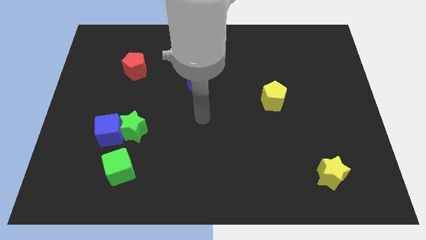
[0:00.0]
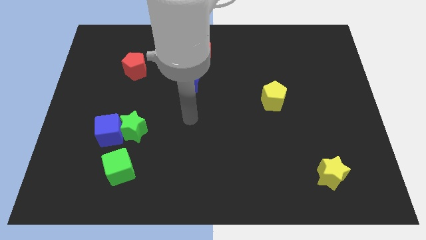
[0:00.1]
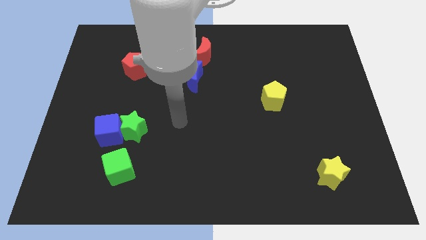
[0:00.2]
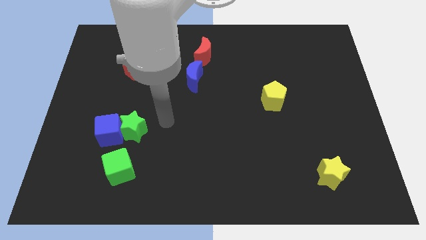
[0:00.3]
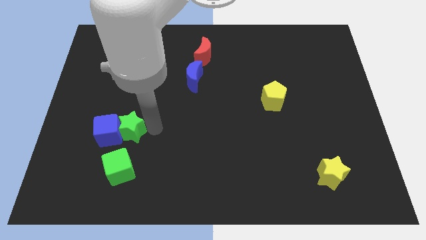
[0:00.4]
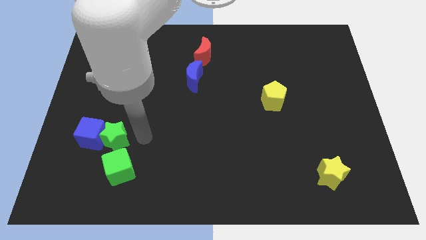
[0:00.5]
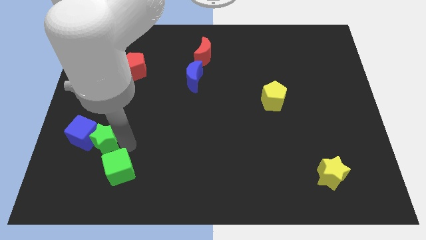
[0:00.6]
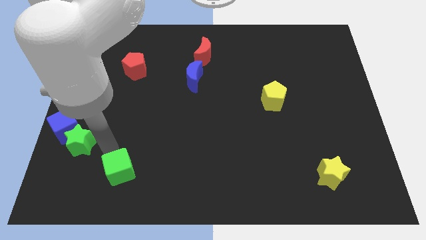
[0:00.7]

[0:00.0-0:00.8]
separate the blue cube from the green star and green cube

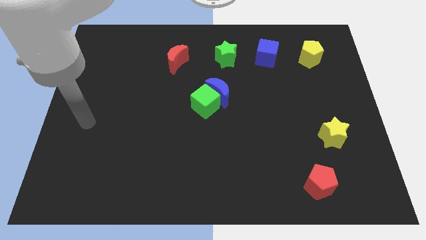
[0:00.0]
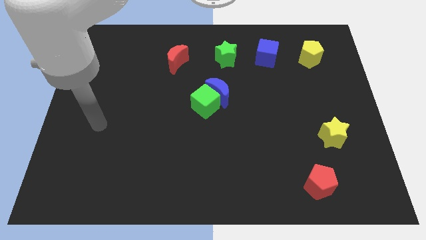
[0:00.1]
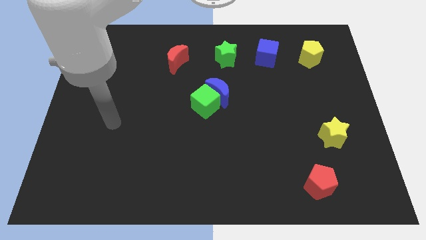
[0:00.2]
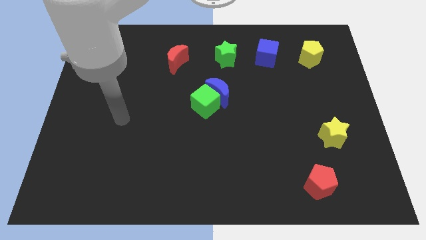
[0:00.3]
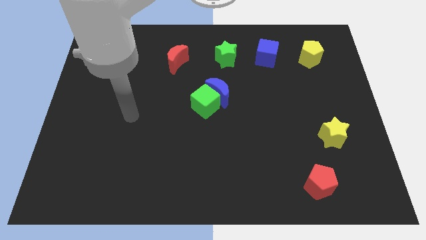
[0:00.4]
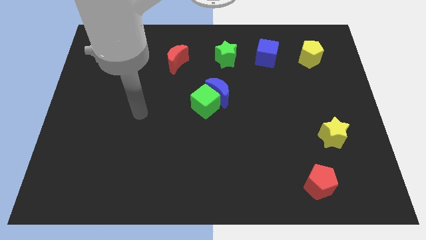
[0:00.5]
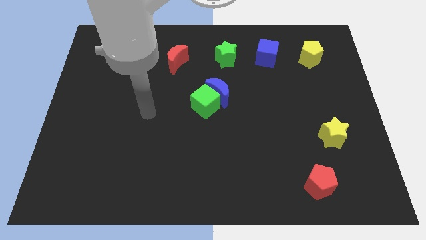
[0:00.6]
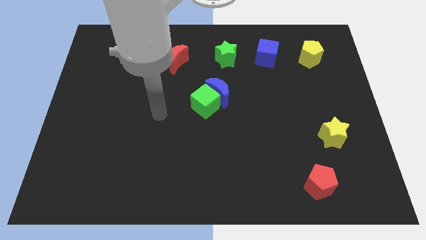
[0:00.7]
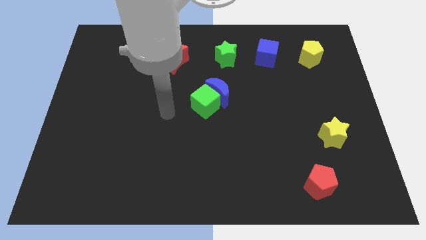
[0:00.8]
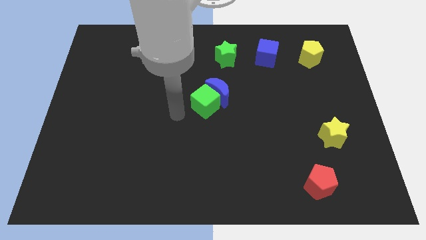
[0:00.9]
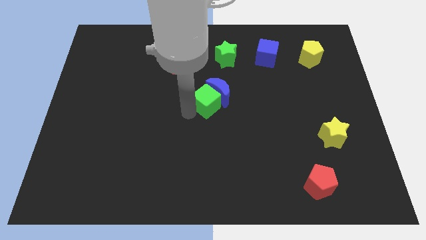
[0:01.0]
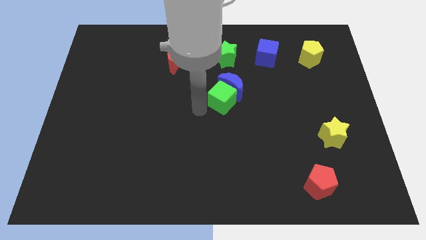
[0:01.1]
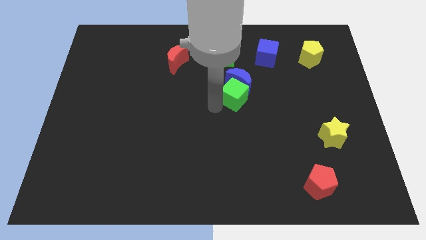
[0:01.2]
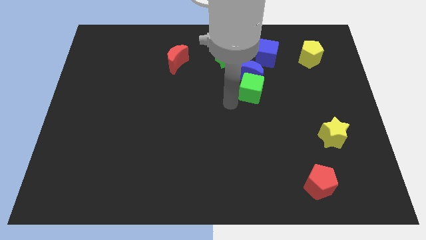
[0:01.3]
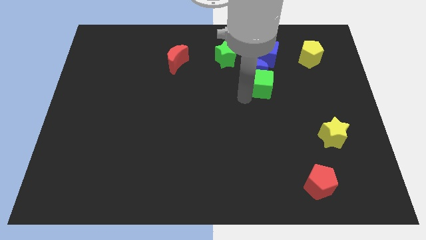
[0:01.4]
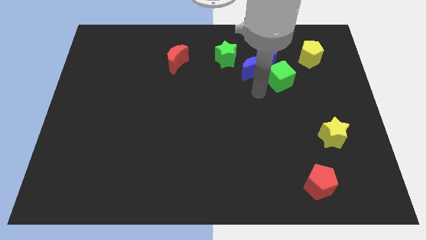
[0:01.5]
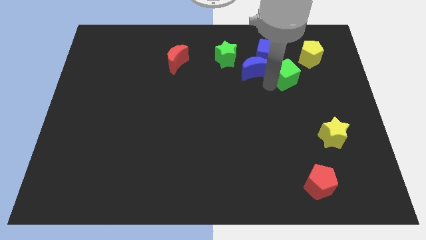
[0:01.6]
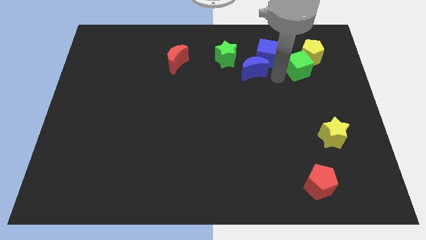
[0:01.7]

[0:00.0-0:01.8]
move the blue moon away from the green cube

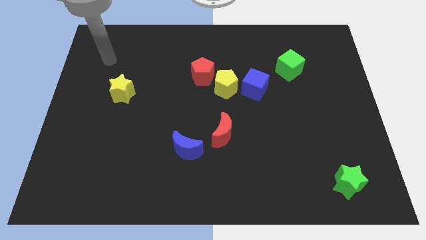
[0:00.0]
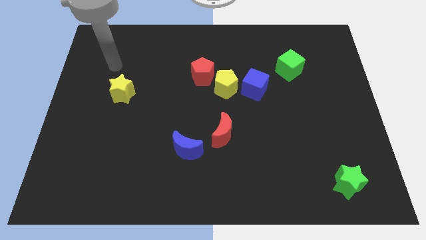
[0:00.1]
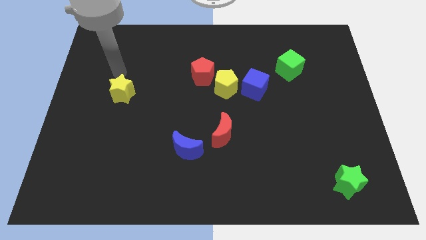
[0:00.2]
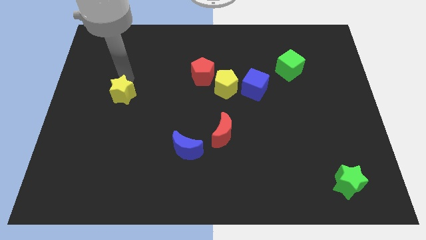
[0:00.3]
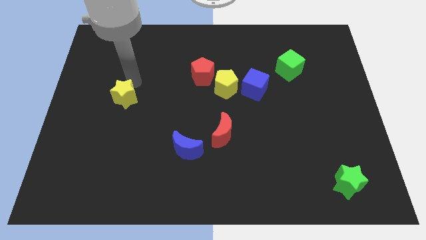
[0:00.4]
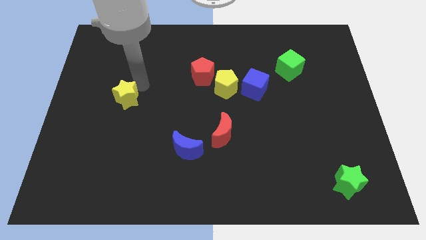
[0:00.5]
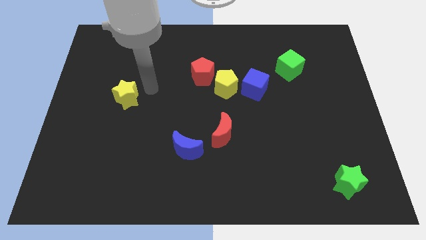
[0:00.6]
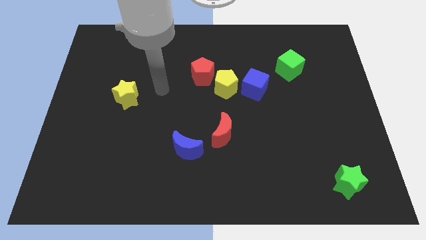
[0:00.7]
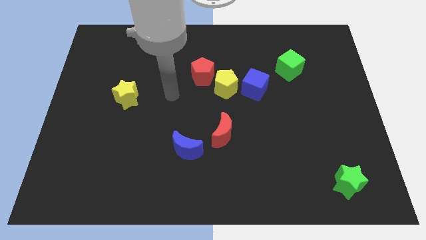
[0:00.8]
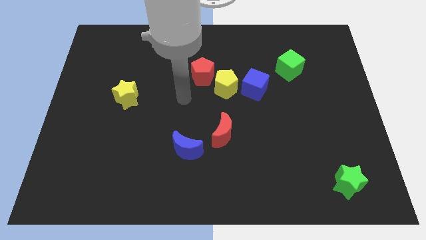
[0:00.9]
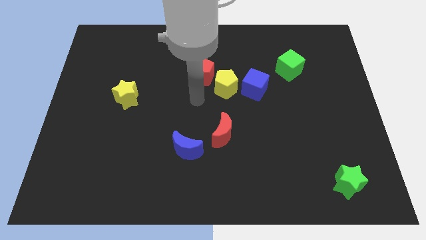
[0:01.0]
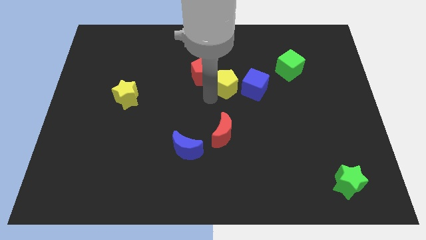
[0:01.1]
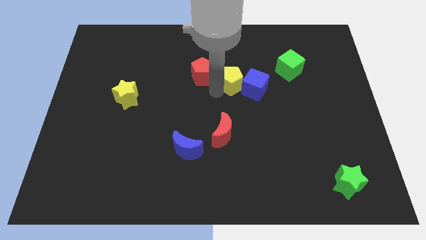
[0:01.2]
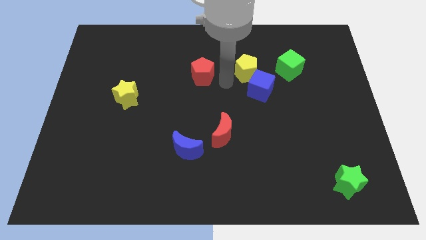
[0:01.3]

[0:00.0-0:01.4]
move the red pentagon away from the yellow pentagon

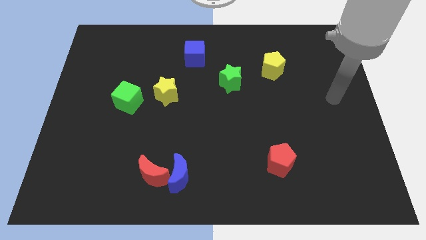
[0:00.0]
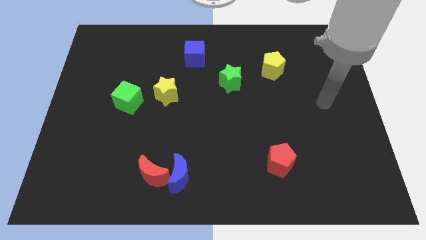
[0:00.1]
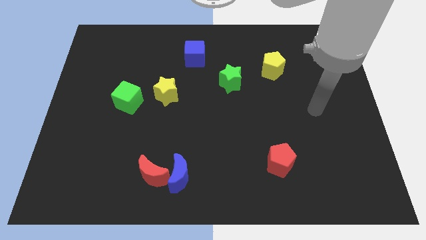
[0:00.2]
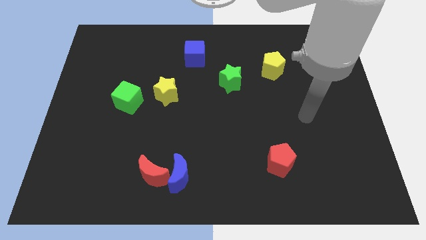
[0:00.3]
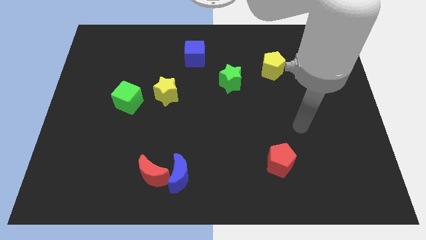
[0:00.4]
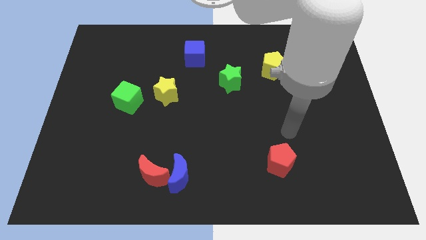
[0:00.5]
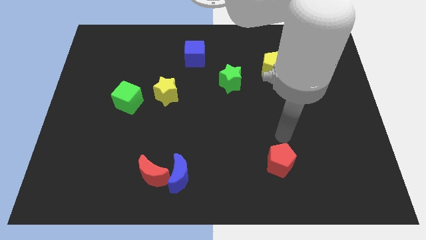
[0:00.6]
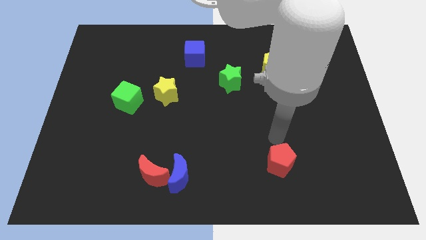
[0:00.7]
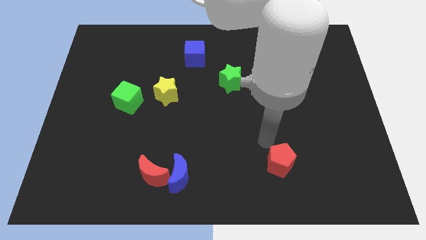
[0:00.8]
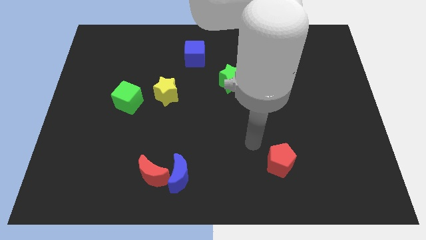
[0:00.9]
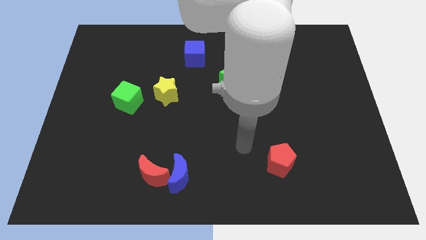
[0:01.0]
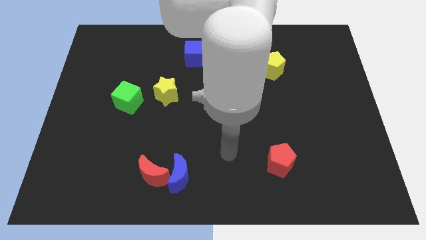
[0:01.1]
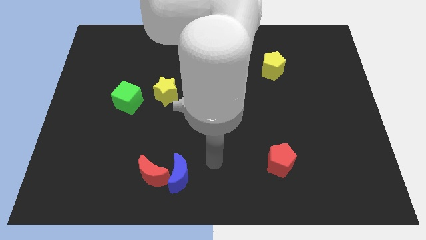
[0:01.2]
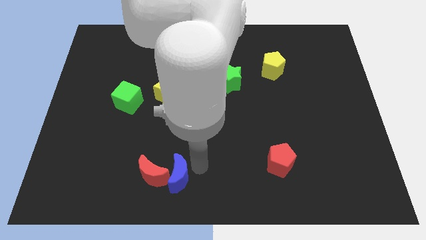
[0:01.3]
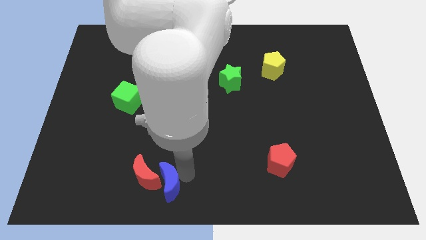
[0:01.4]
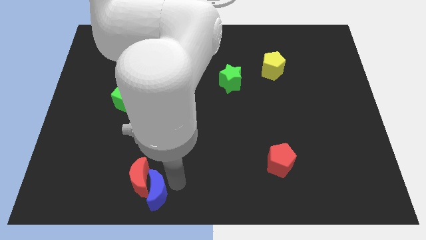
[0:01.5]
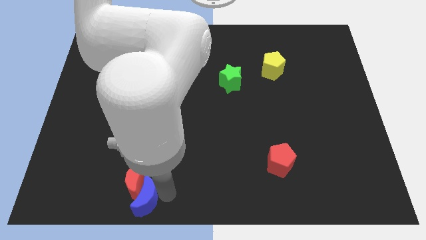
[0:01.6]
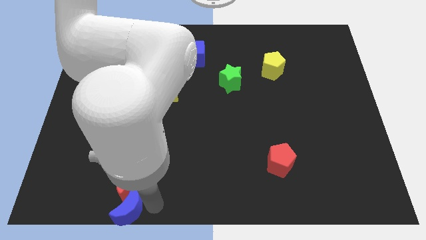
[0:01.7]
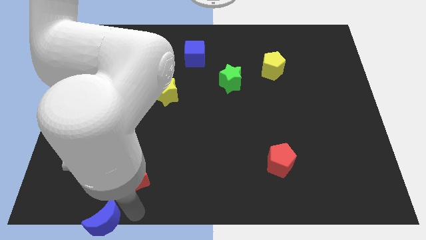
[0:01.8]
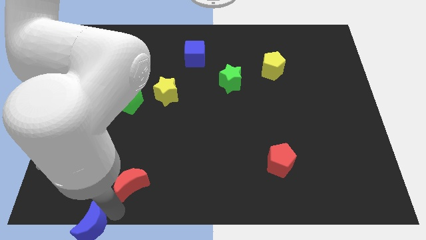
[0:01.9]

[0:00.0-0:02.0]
move the red moon away from the blue moon

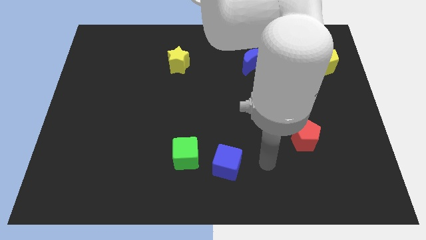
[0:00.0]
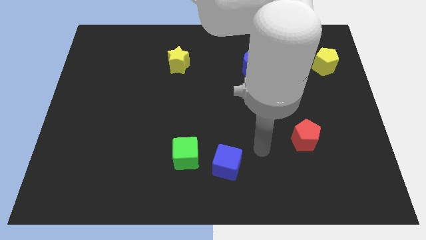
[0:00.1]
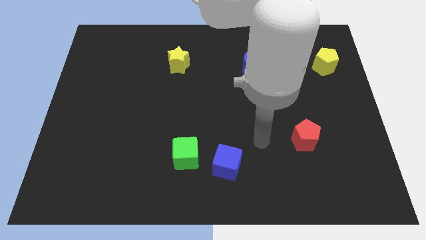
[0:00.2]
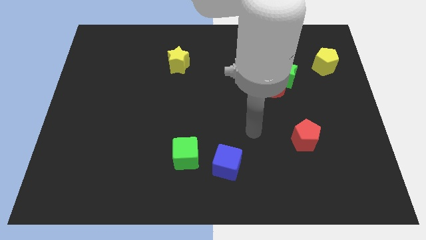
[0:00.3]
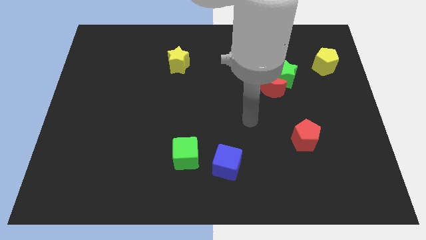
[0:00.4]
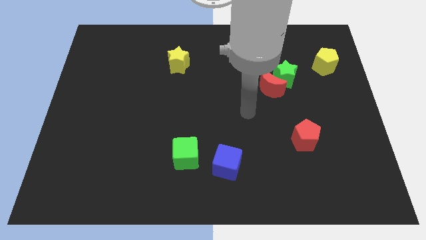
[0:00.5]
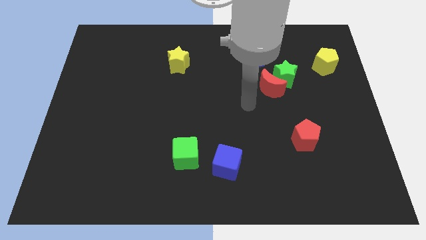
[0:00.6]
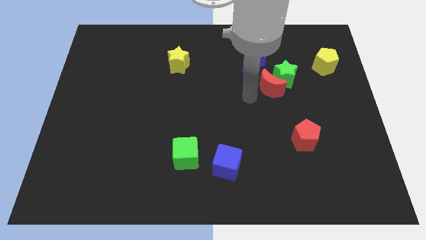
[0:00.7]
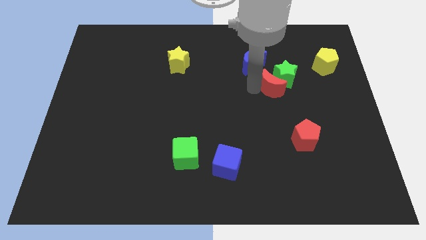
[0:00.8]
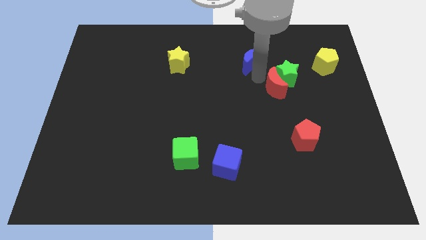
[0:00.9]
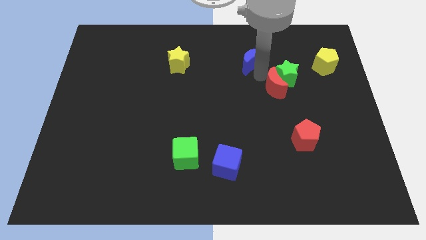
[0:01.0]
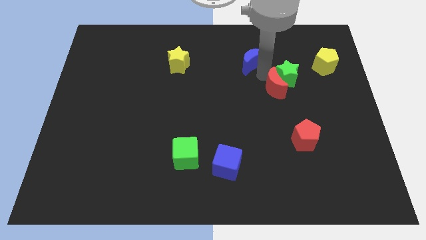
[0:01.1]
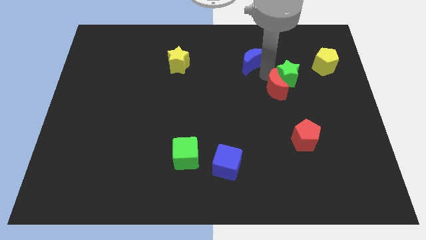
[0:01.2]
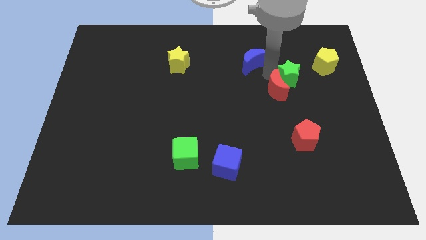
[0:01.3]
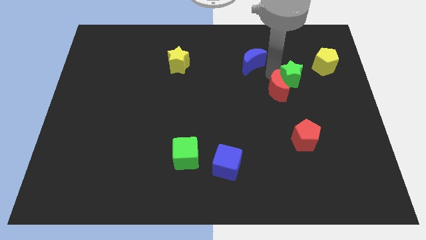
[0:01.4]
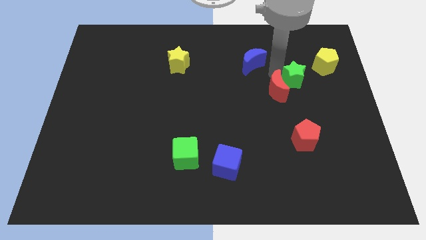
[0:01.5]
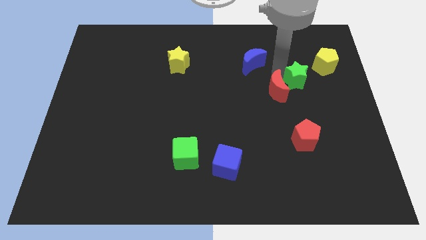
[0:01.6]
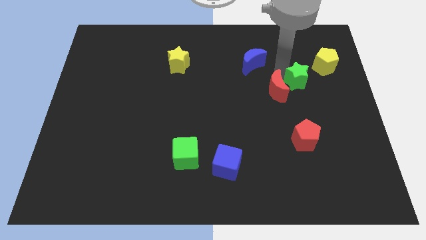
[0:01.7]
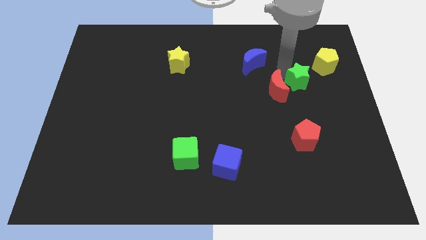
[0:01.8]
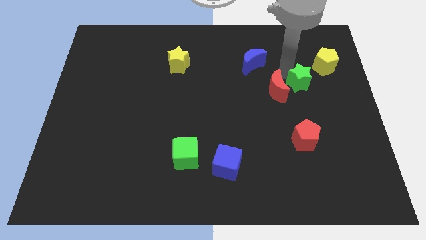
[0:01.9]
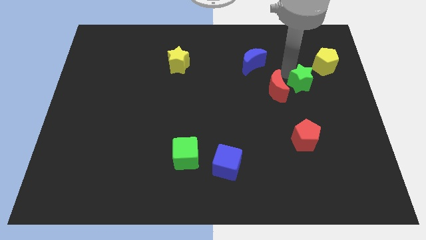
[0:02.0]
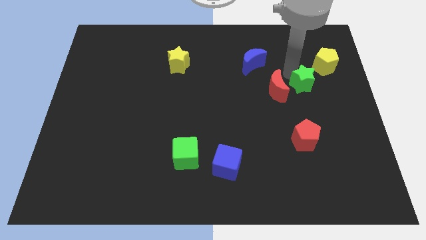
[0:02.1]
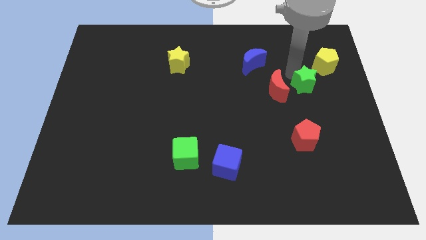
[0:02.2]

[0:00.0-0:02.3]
separate the green star from the red moon and blue moon

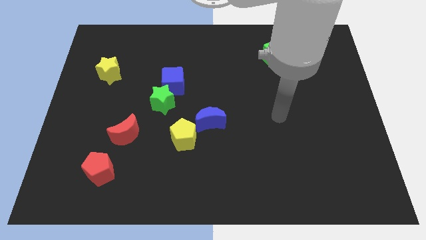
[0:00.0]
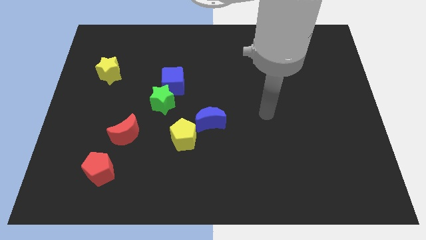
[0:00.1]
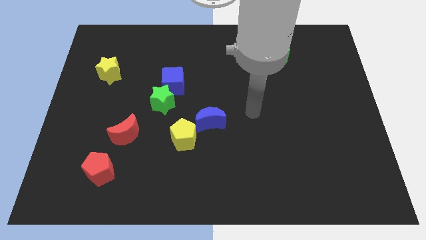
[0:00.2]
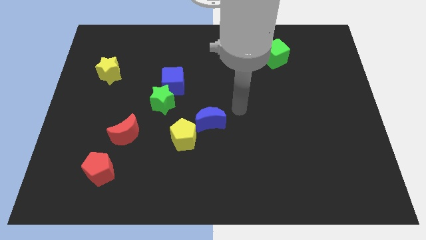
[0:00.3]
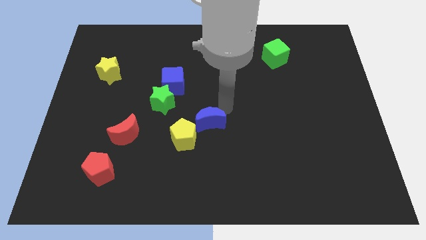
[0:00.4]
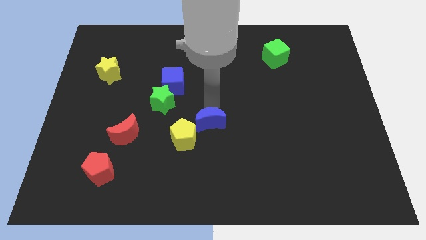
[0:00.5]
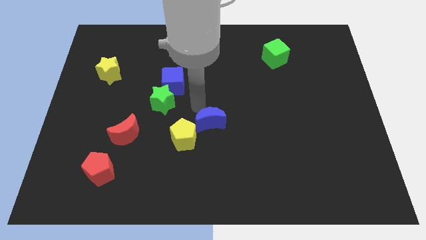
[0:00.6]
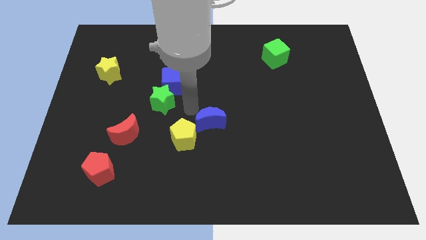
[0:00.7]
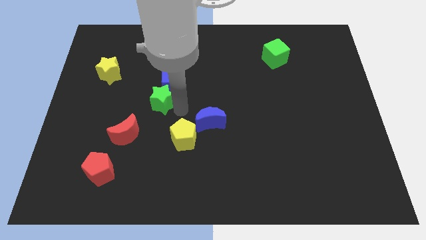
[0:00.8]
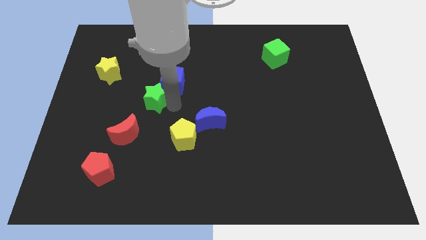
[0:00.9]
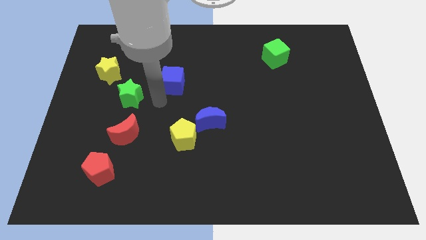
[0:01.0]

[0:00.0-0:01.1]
move the blue cube away from the green star
